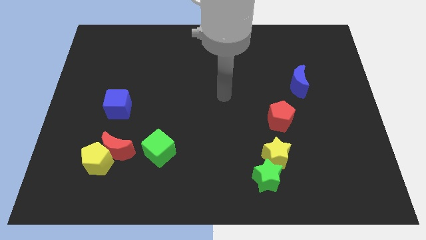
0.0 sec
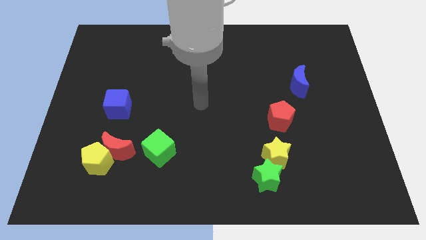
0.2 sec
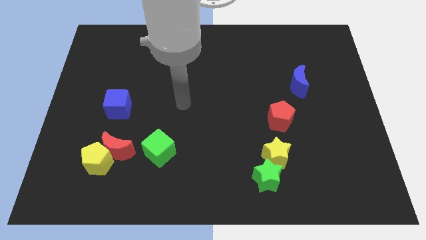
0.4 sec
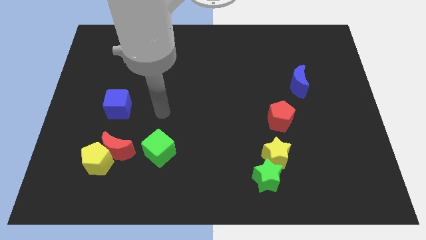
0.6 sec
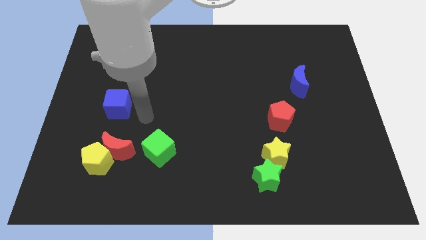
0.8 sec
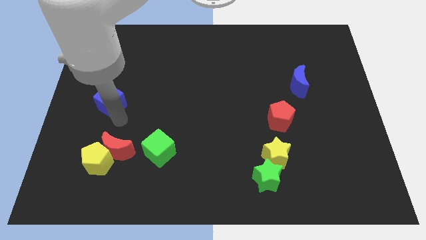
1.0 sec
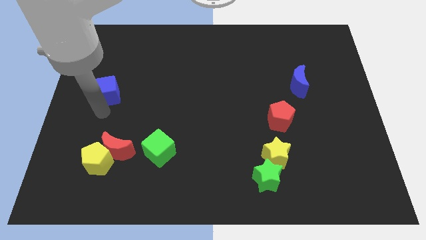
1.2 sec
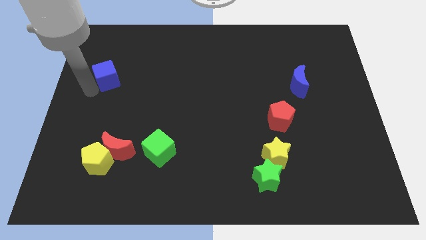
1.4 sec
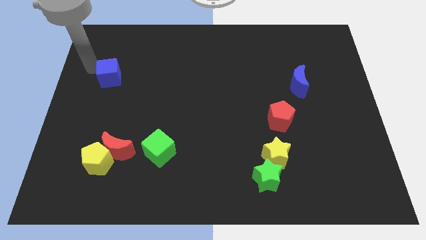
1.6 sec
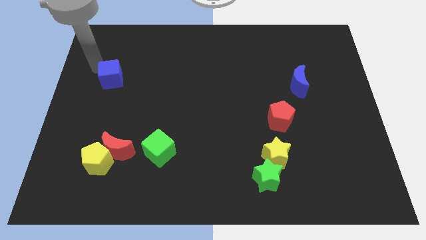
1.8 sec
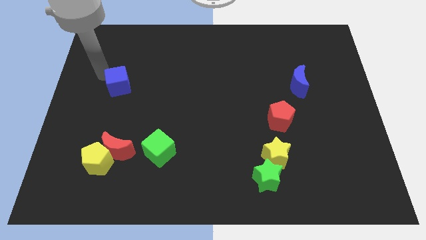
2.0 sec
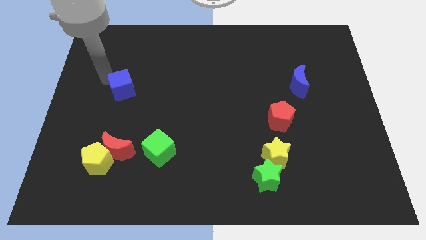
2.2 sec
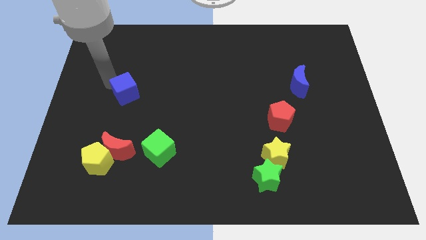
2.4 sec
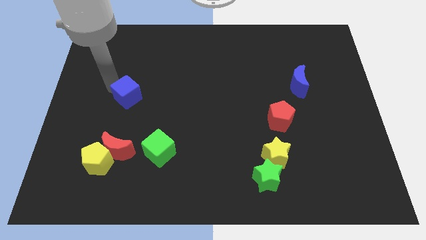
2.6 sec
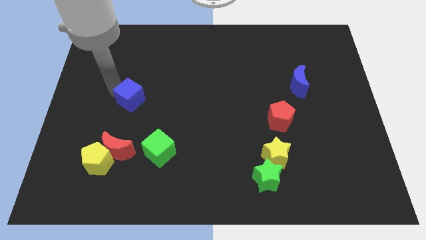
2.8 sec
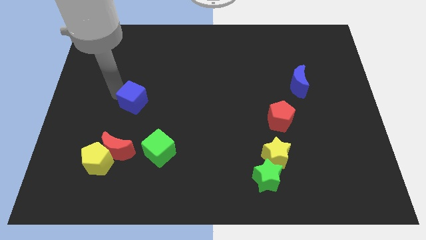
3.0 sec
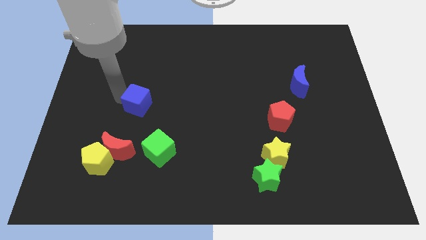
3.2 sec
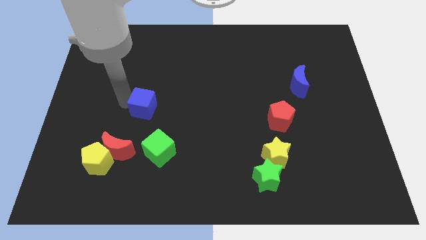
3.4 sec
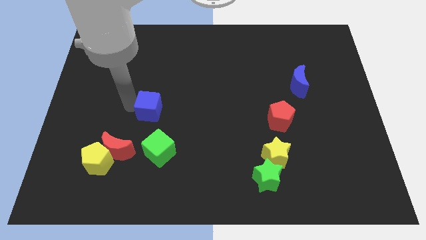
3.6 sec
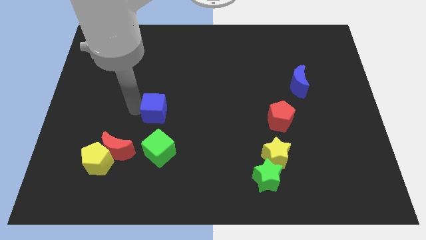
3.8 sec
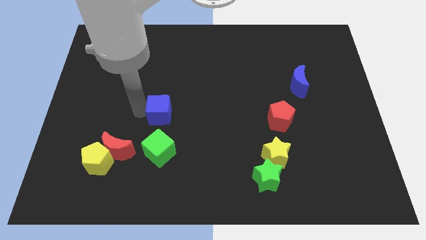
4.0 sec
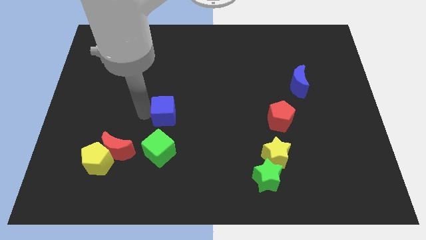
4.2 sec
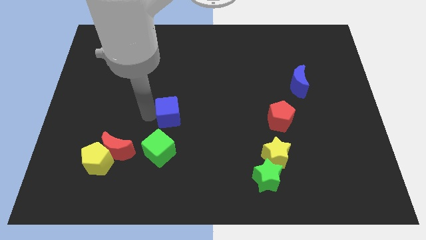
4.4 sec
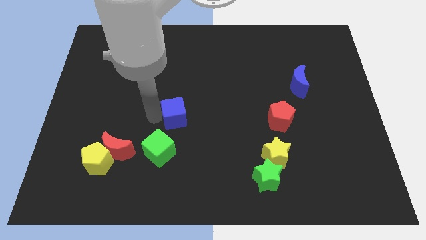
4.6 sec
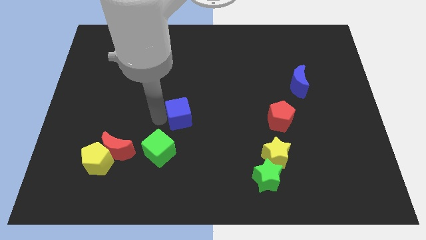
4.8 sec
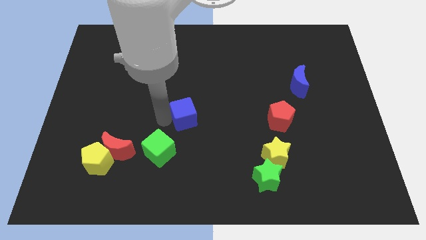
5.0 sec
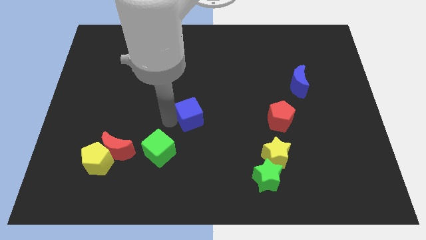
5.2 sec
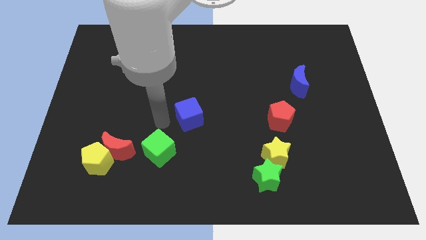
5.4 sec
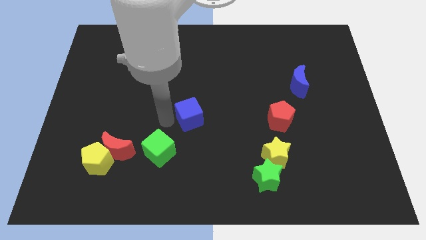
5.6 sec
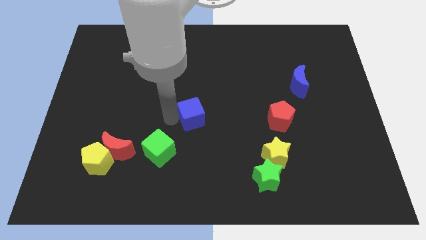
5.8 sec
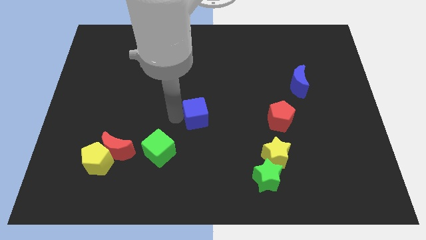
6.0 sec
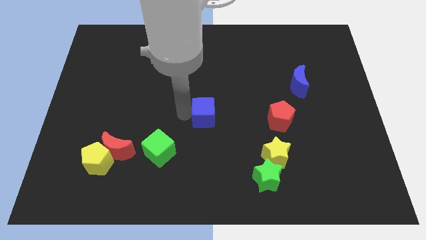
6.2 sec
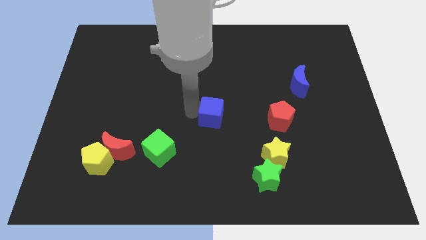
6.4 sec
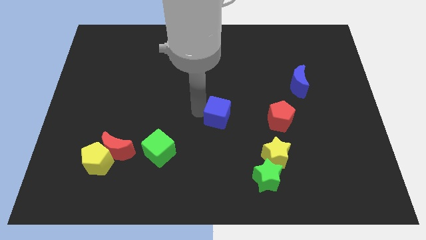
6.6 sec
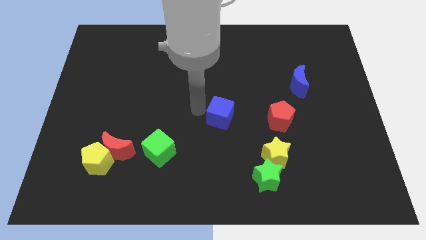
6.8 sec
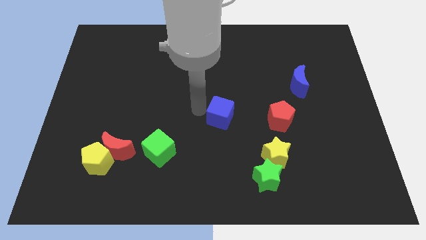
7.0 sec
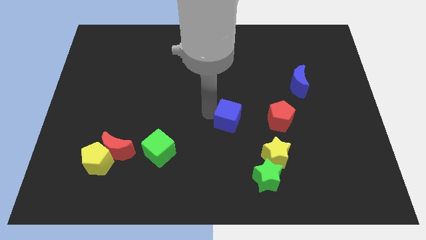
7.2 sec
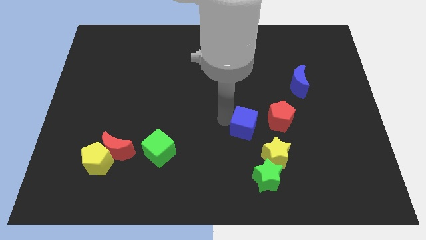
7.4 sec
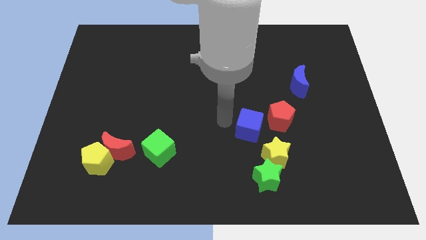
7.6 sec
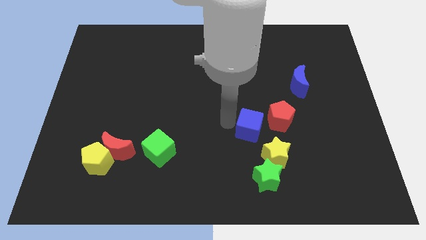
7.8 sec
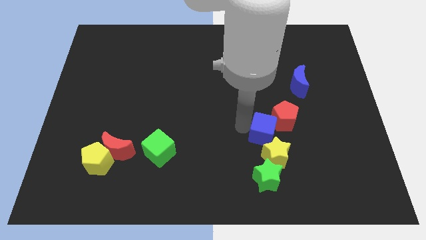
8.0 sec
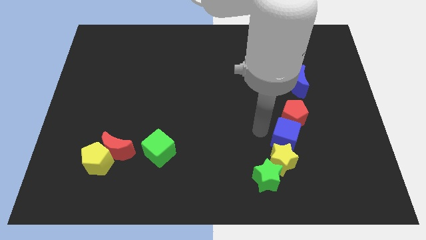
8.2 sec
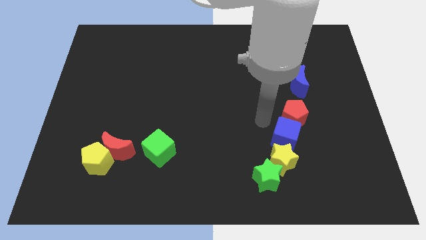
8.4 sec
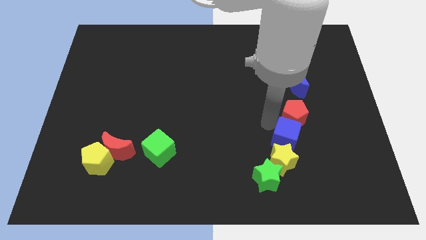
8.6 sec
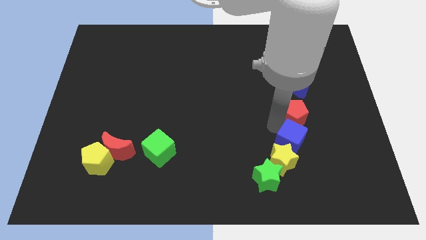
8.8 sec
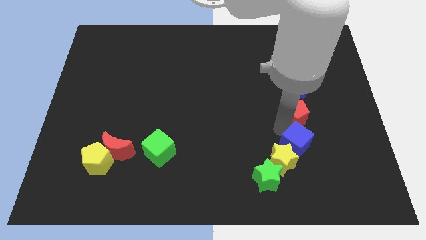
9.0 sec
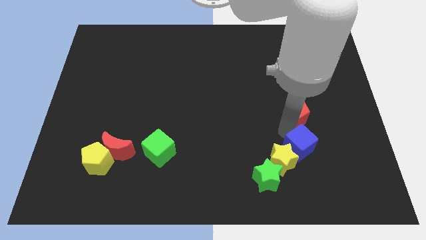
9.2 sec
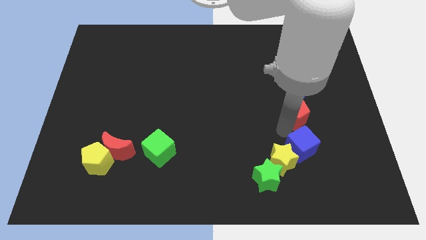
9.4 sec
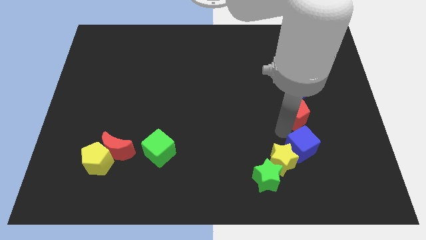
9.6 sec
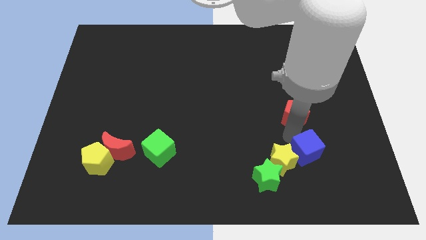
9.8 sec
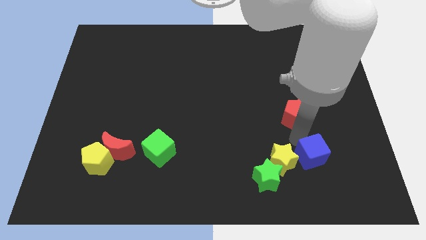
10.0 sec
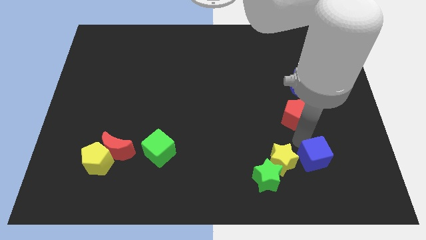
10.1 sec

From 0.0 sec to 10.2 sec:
put the blue cube to the right side of the green star

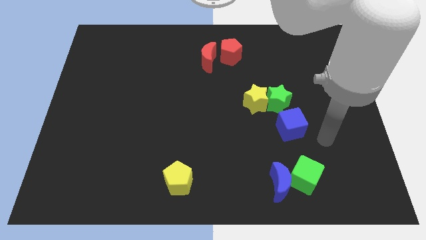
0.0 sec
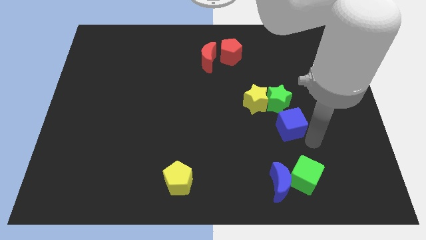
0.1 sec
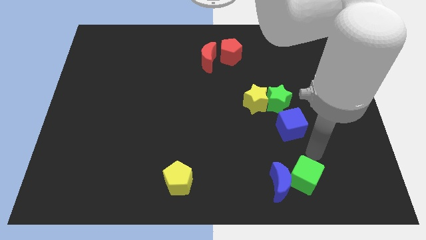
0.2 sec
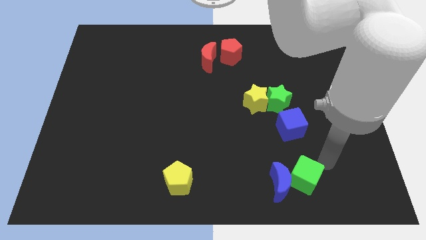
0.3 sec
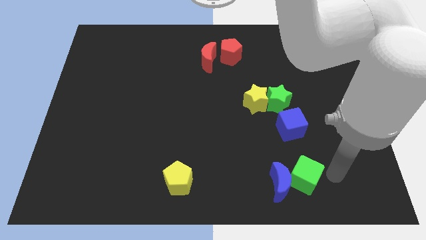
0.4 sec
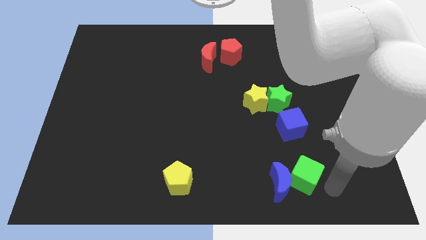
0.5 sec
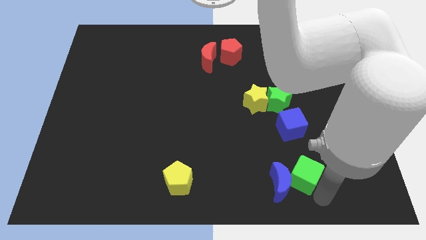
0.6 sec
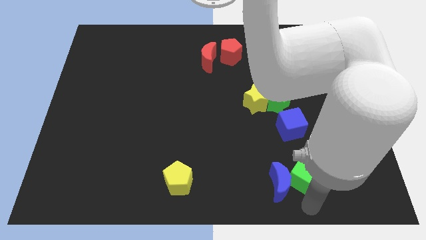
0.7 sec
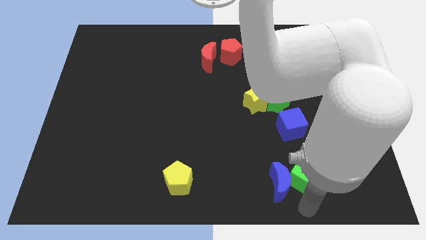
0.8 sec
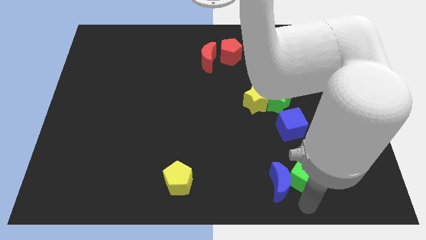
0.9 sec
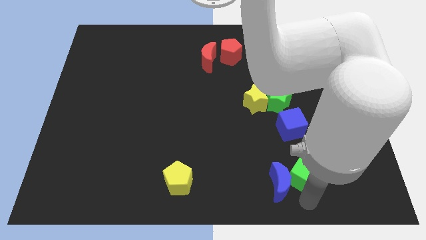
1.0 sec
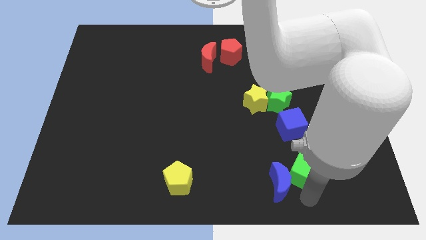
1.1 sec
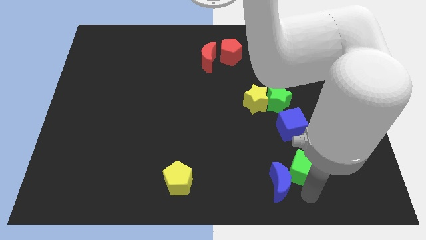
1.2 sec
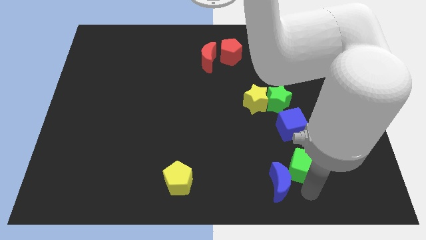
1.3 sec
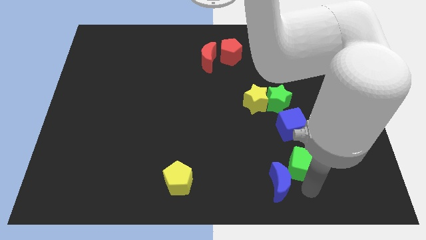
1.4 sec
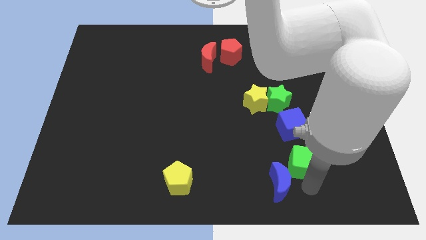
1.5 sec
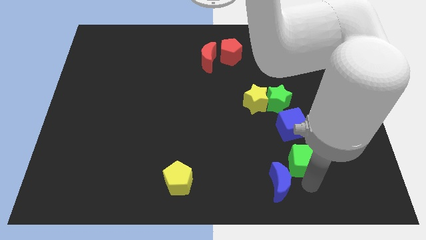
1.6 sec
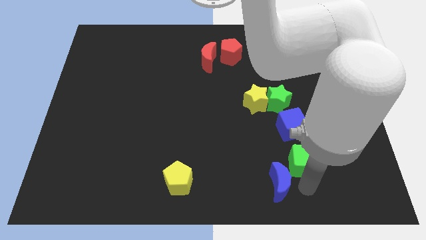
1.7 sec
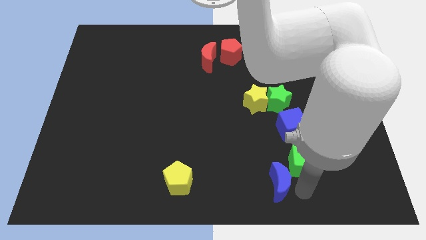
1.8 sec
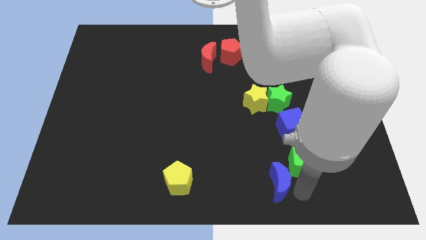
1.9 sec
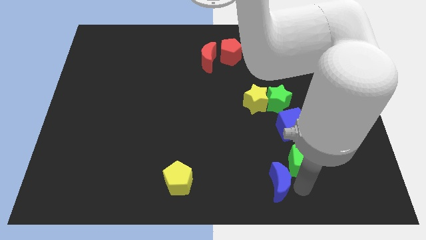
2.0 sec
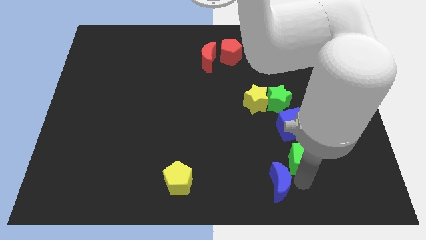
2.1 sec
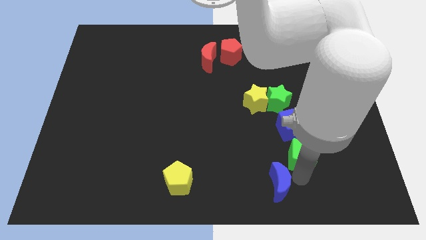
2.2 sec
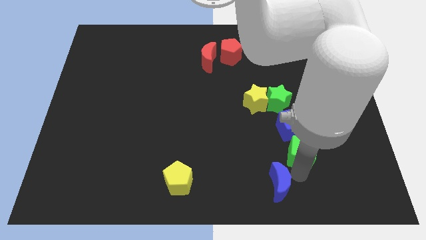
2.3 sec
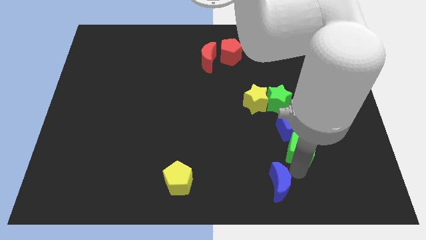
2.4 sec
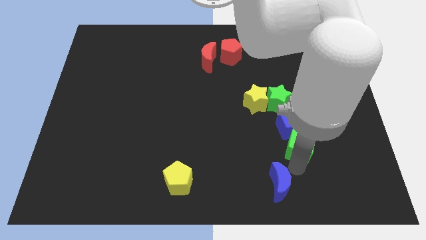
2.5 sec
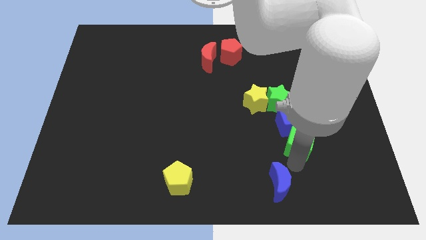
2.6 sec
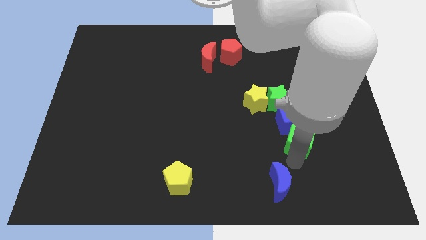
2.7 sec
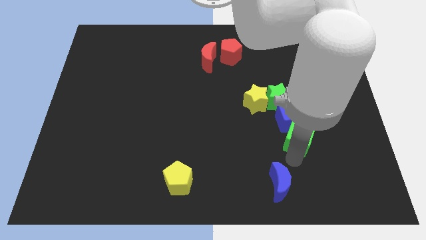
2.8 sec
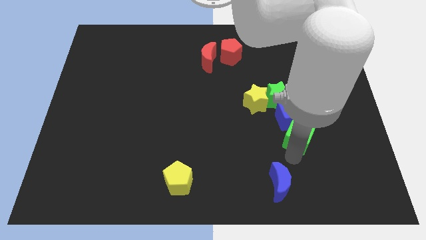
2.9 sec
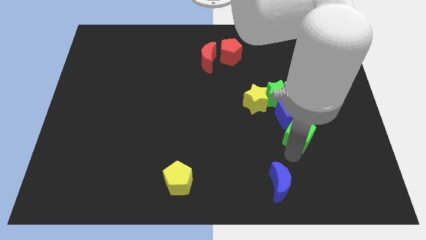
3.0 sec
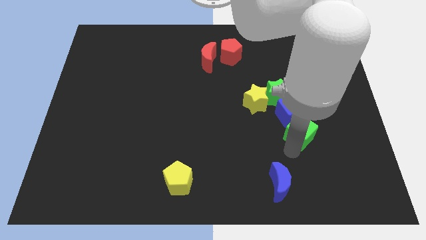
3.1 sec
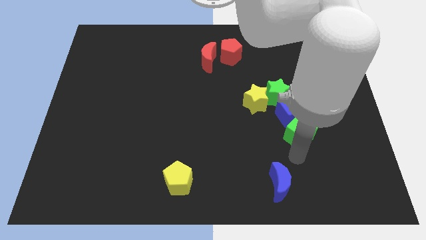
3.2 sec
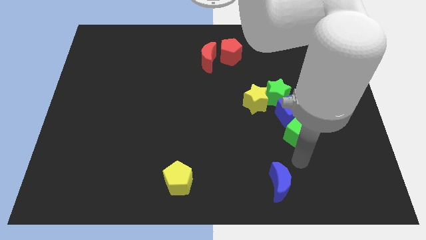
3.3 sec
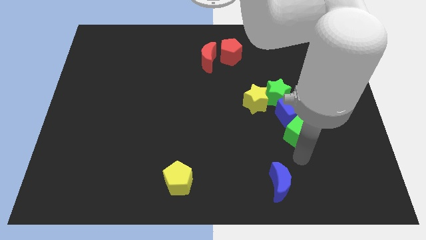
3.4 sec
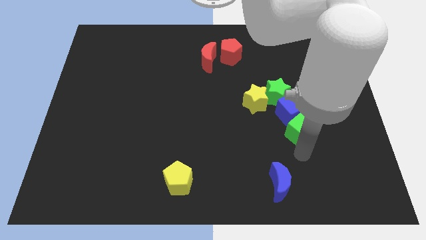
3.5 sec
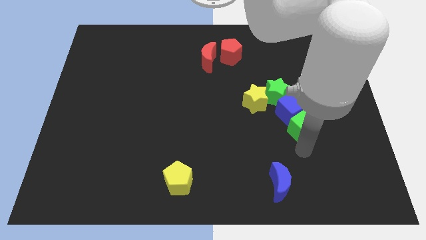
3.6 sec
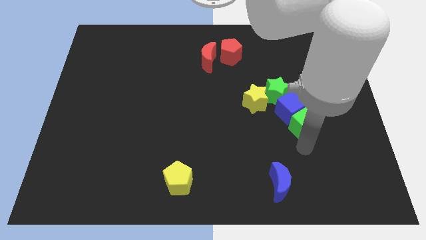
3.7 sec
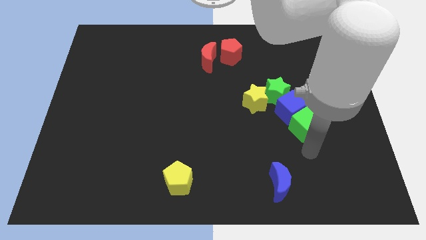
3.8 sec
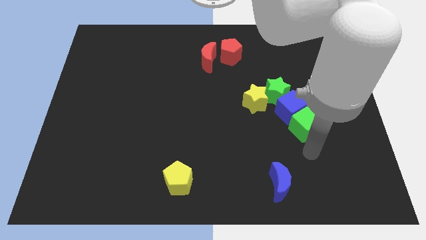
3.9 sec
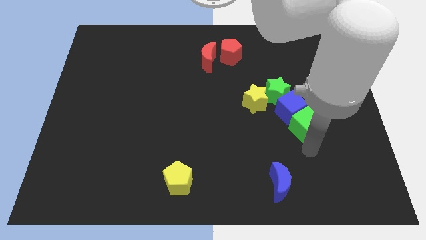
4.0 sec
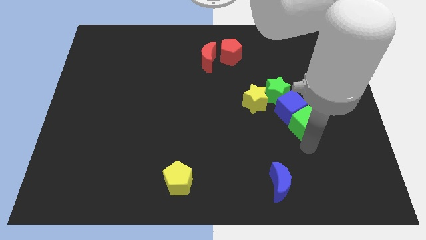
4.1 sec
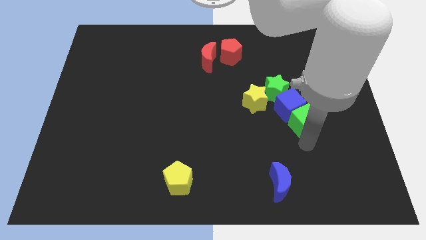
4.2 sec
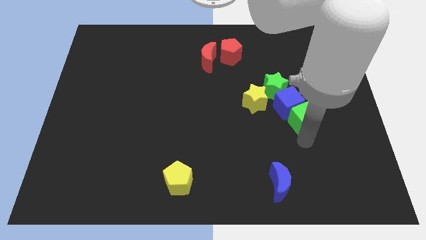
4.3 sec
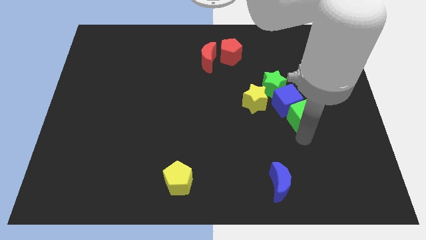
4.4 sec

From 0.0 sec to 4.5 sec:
move the green cube just right of the yellow star
